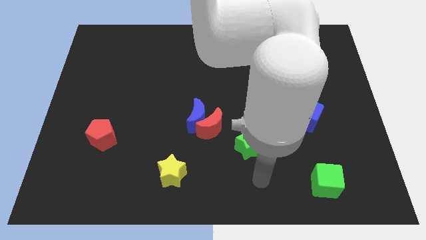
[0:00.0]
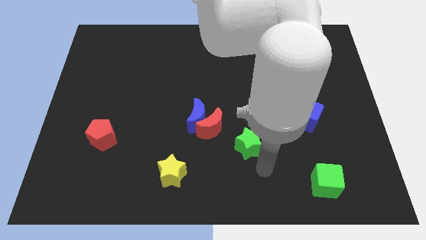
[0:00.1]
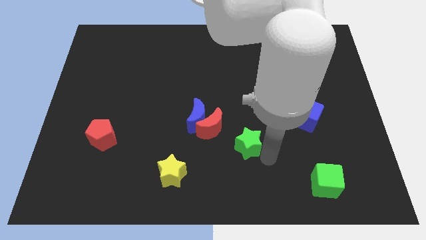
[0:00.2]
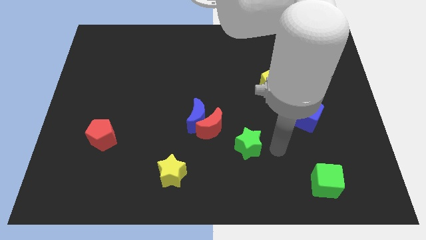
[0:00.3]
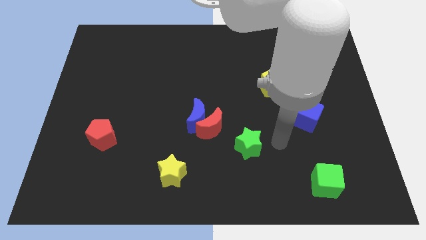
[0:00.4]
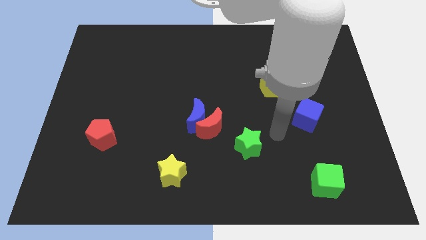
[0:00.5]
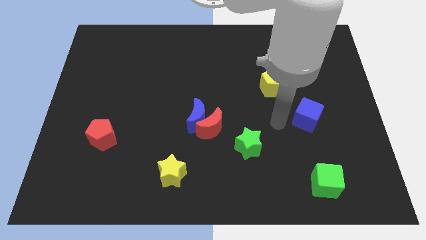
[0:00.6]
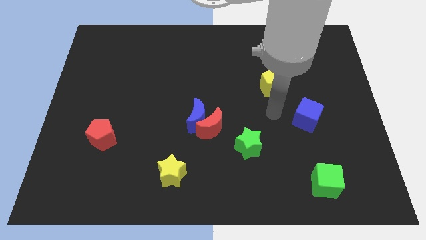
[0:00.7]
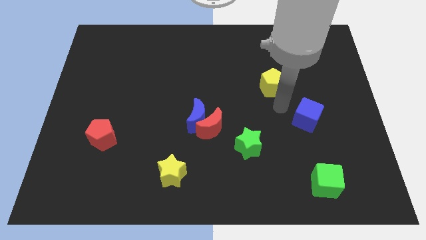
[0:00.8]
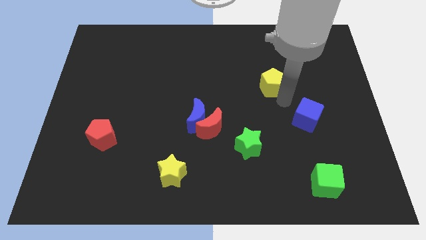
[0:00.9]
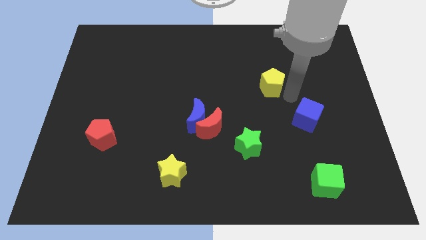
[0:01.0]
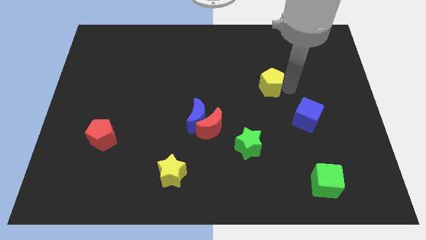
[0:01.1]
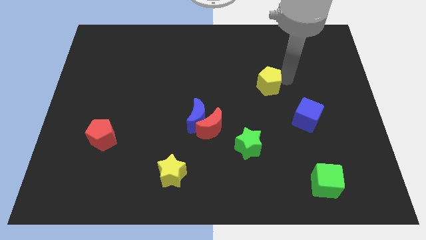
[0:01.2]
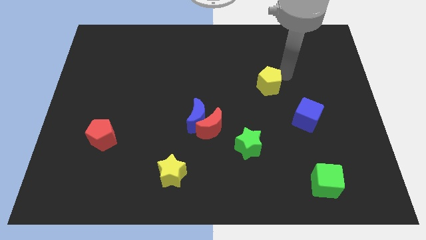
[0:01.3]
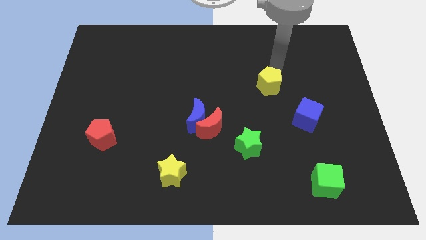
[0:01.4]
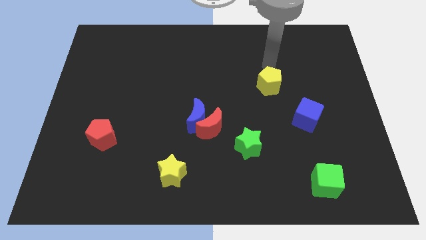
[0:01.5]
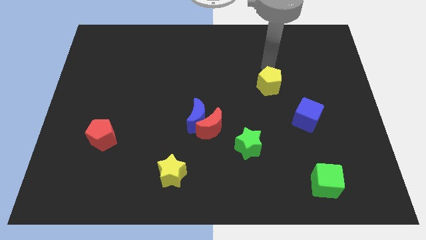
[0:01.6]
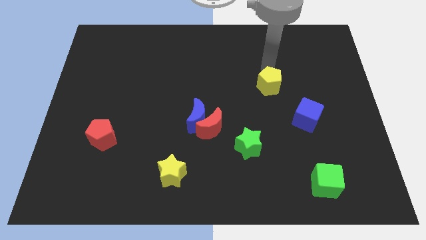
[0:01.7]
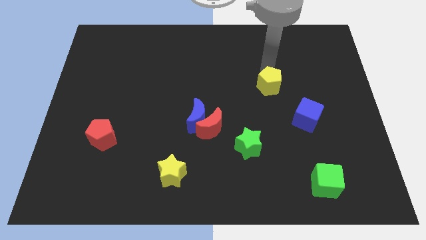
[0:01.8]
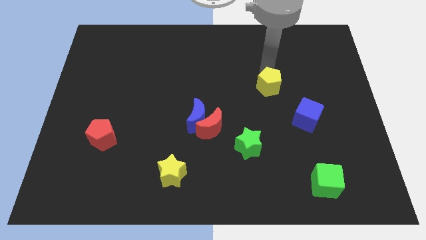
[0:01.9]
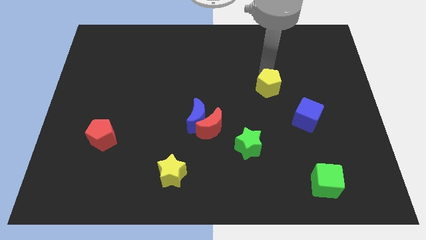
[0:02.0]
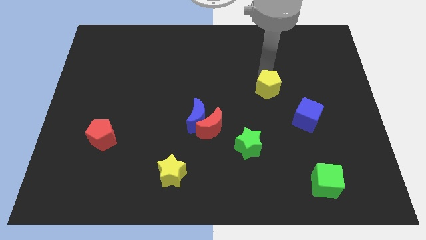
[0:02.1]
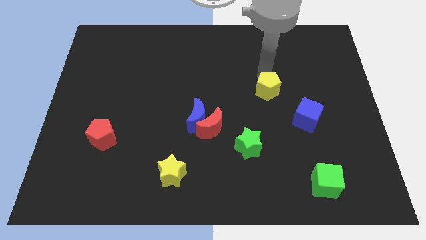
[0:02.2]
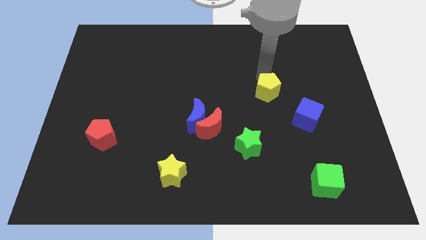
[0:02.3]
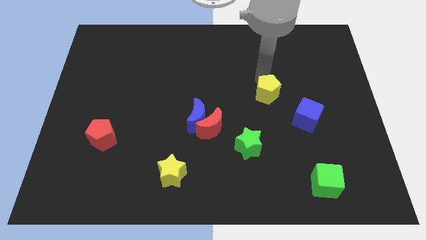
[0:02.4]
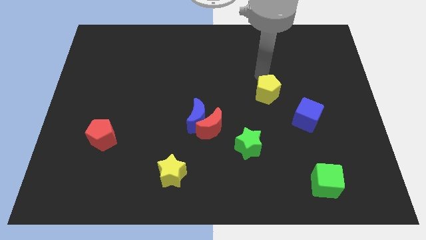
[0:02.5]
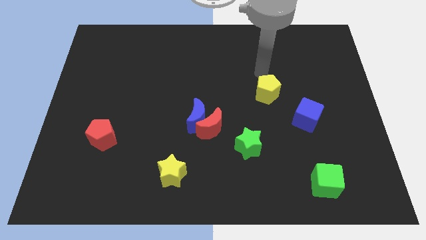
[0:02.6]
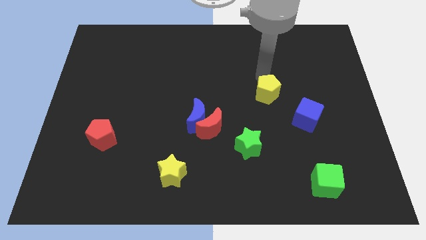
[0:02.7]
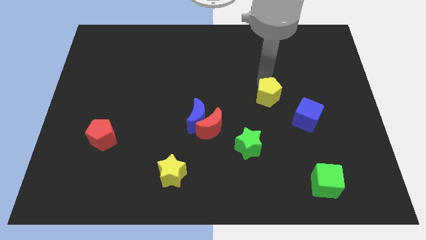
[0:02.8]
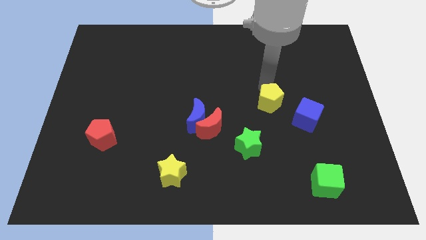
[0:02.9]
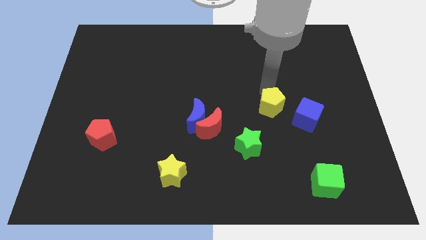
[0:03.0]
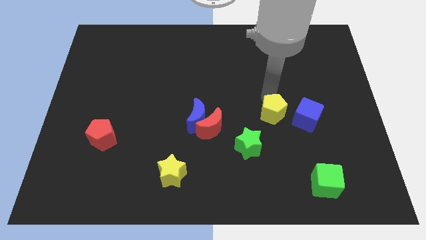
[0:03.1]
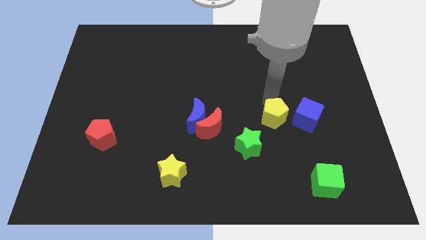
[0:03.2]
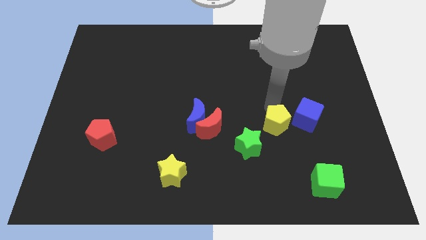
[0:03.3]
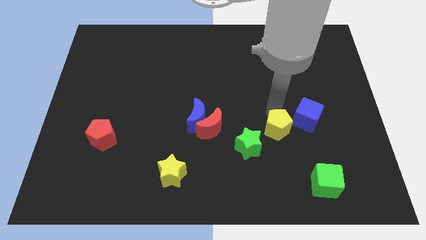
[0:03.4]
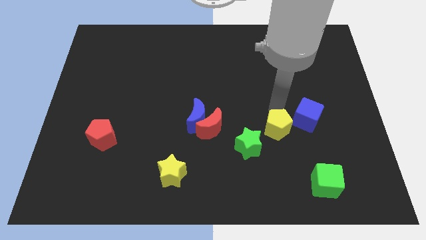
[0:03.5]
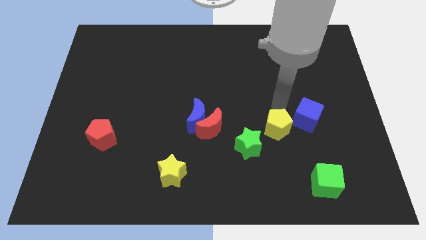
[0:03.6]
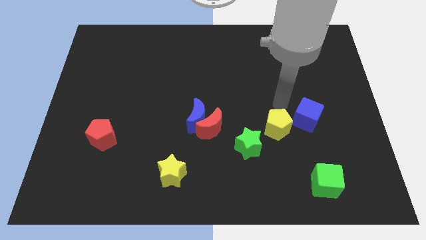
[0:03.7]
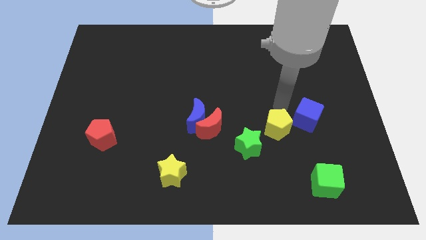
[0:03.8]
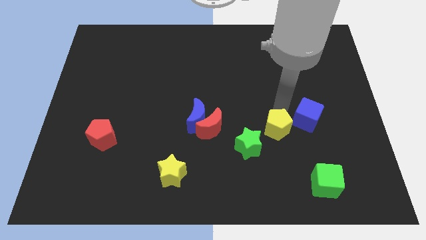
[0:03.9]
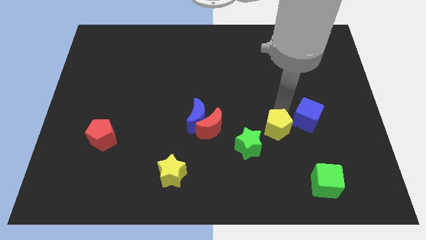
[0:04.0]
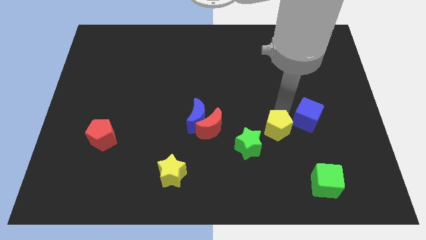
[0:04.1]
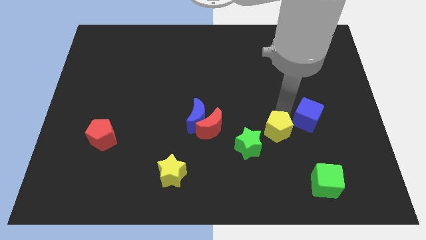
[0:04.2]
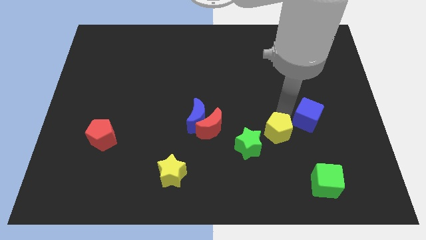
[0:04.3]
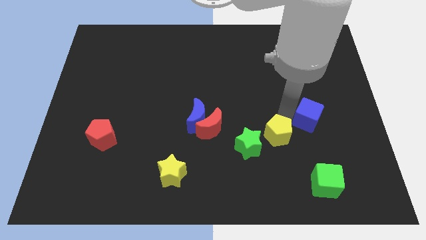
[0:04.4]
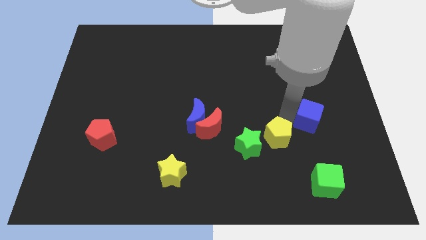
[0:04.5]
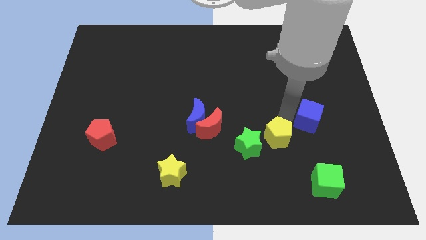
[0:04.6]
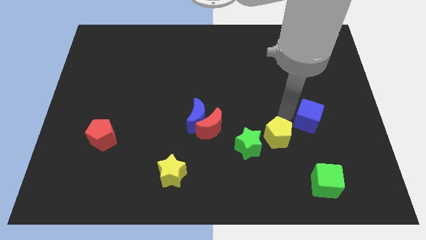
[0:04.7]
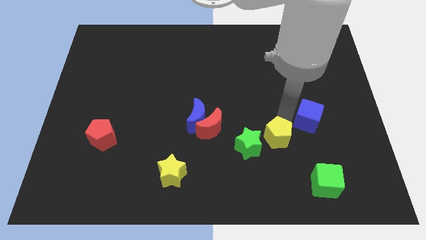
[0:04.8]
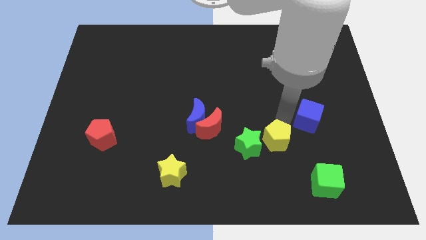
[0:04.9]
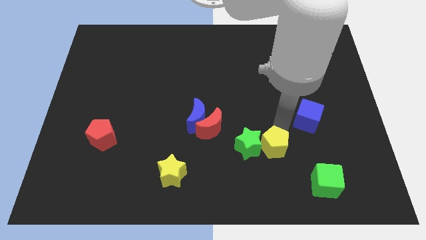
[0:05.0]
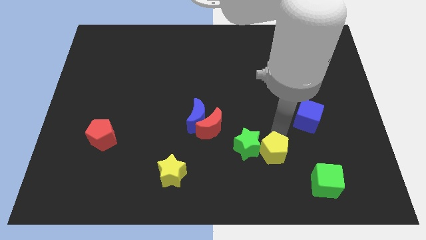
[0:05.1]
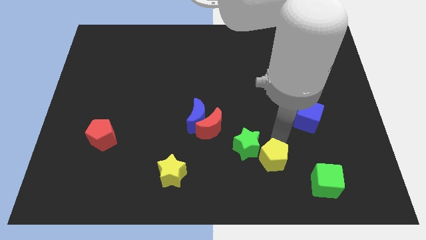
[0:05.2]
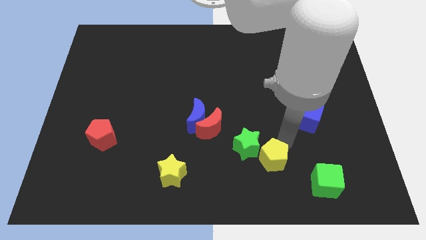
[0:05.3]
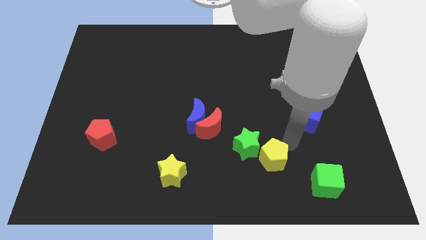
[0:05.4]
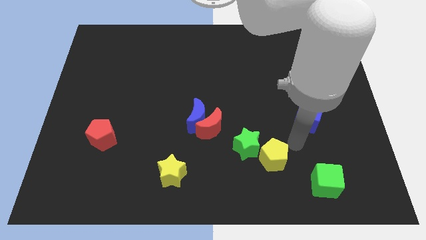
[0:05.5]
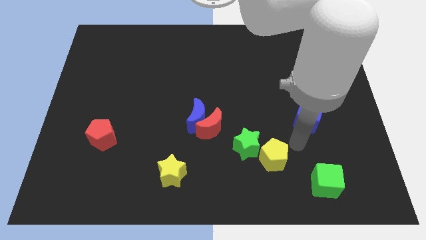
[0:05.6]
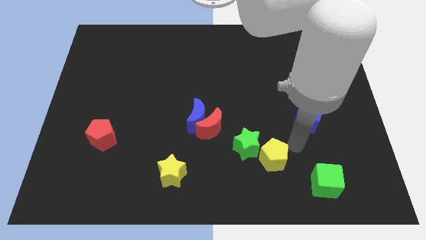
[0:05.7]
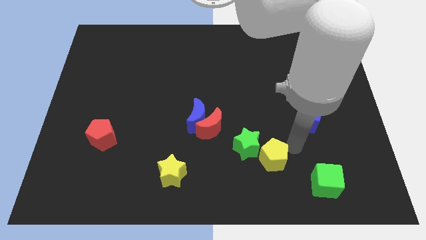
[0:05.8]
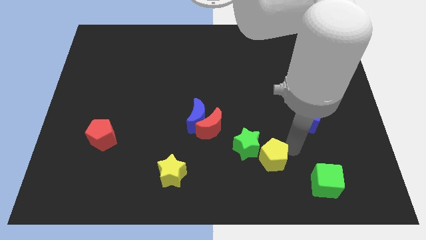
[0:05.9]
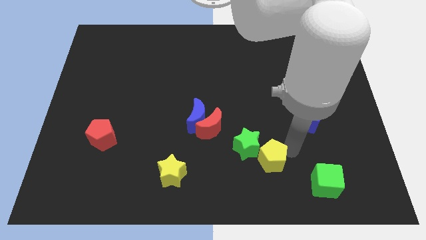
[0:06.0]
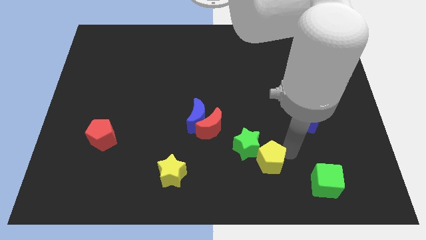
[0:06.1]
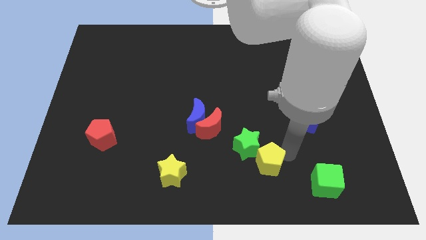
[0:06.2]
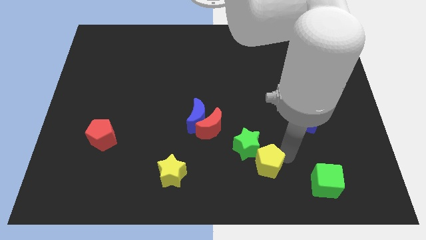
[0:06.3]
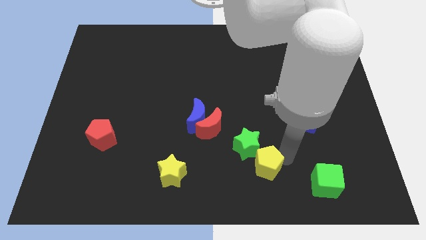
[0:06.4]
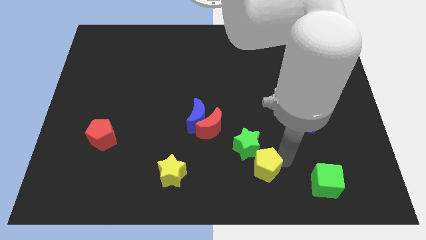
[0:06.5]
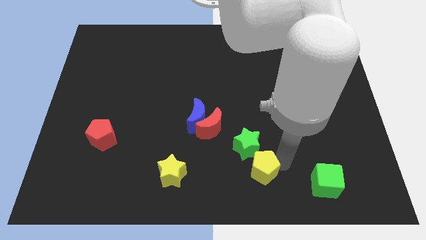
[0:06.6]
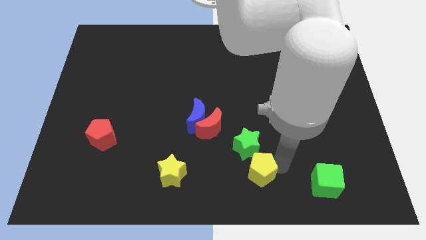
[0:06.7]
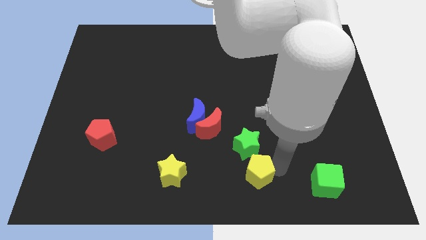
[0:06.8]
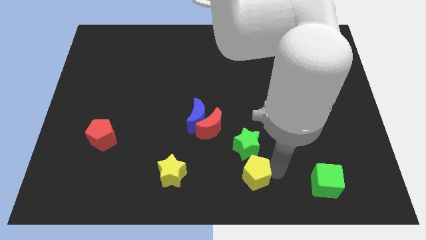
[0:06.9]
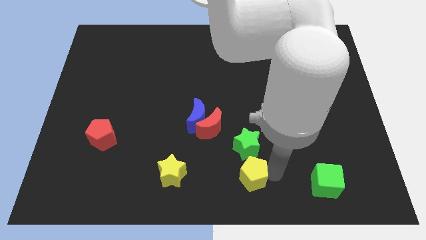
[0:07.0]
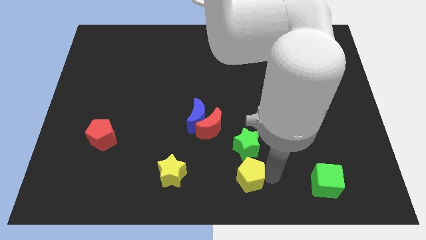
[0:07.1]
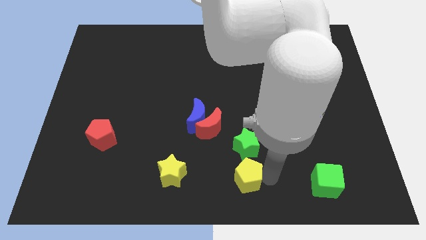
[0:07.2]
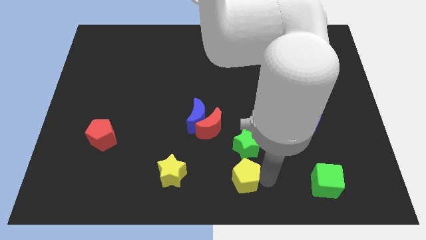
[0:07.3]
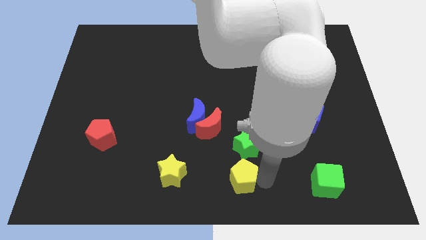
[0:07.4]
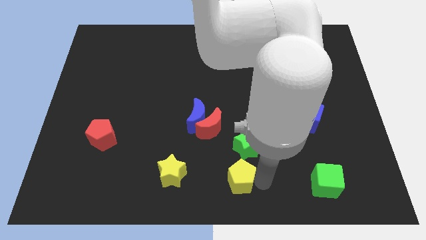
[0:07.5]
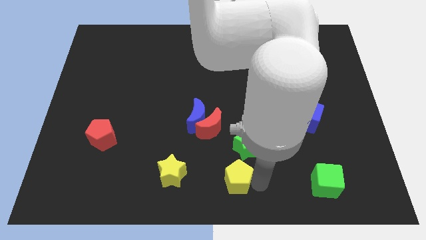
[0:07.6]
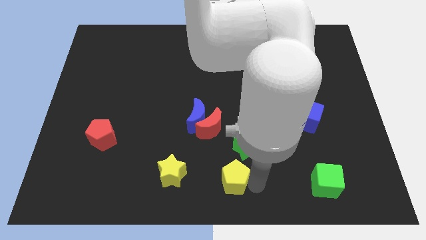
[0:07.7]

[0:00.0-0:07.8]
put the yellow pentagon to the bottom of the red moon
